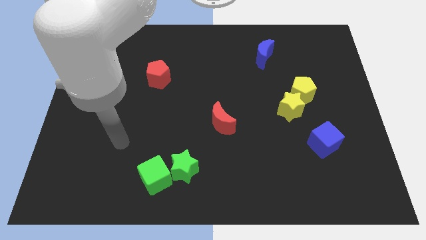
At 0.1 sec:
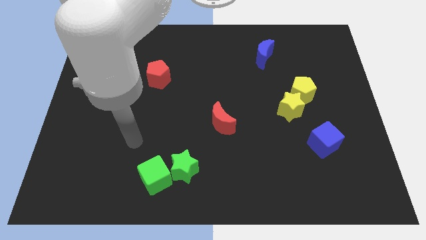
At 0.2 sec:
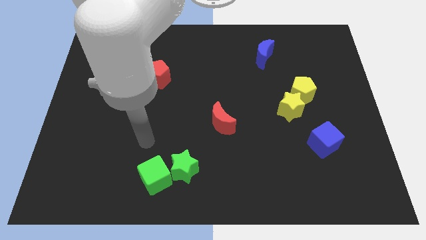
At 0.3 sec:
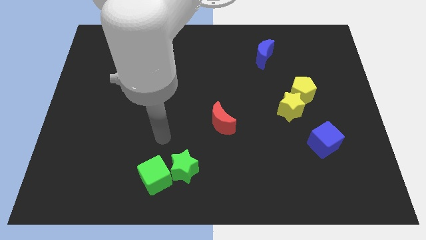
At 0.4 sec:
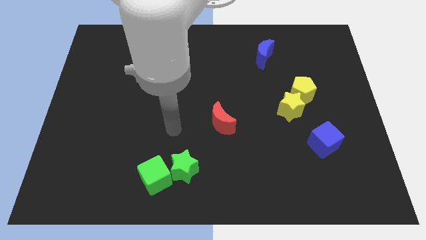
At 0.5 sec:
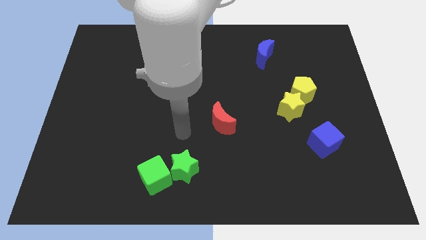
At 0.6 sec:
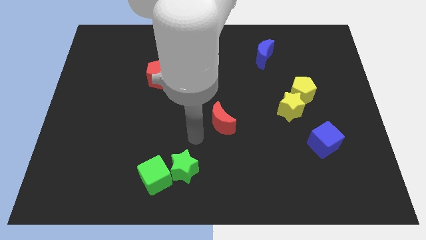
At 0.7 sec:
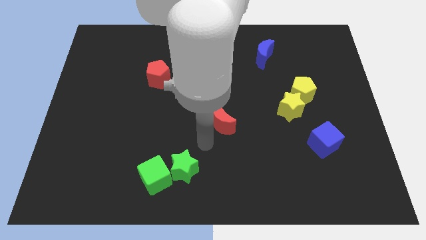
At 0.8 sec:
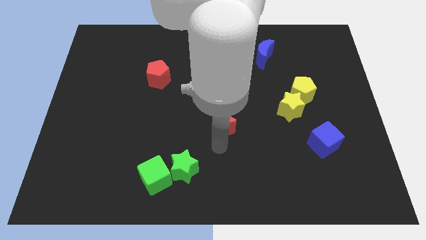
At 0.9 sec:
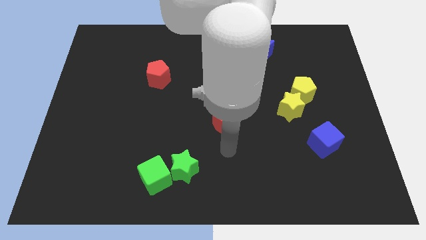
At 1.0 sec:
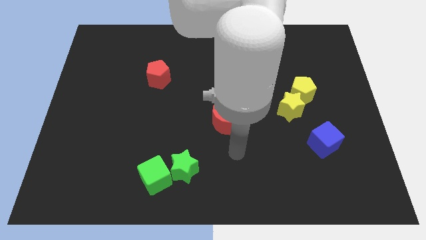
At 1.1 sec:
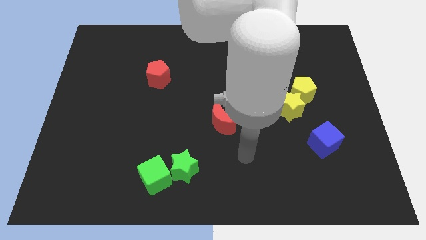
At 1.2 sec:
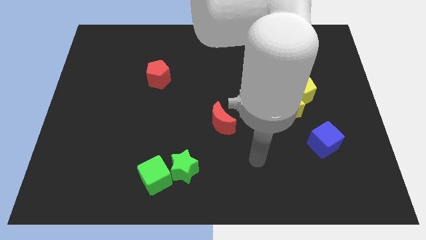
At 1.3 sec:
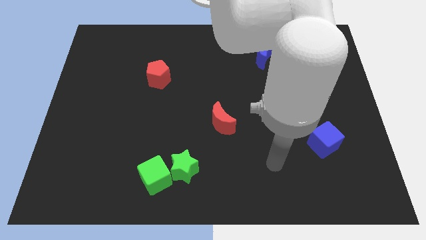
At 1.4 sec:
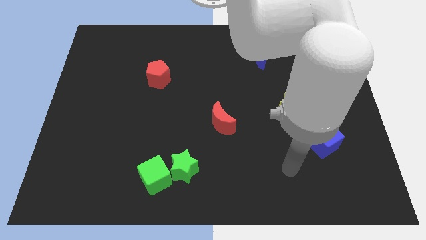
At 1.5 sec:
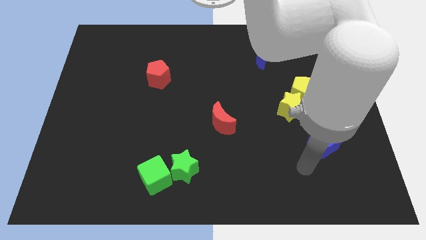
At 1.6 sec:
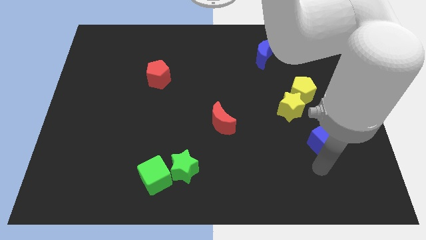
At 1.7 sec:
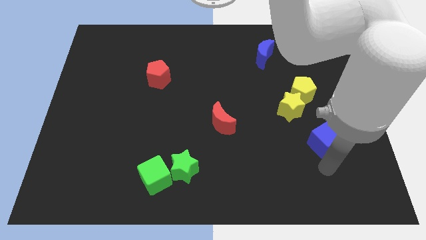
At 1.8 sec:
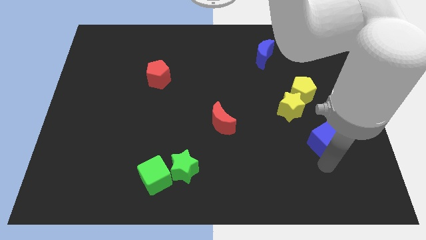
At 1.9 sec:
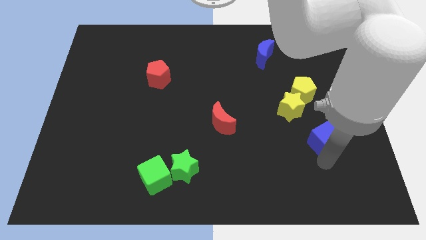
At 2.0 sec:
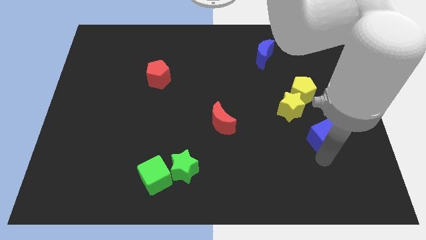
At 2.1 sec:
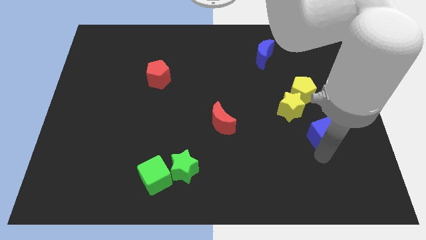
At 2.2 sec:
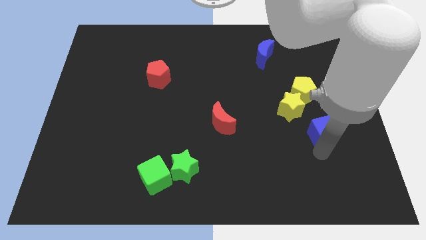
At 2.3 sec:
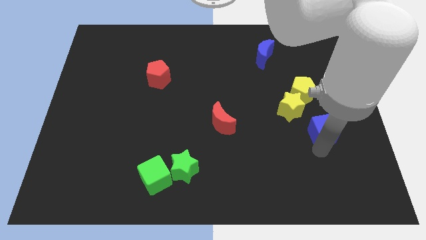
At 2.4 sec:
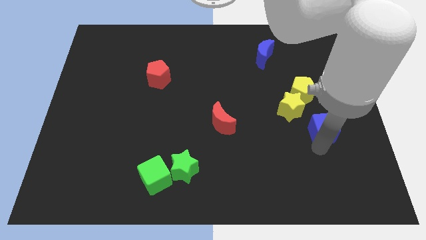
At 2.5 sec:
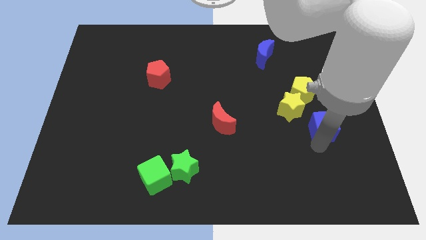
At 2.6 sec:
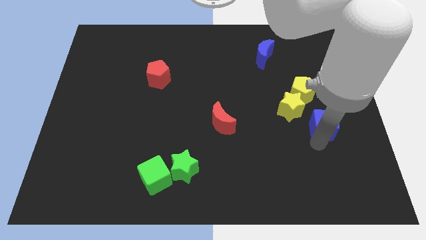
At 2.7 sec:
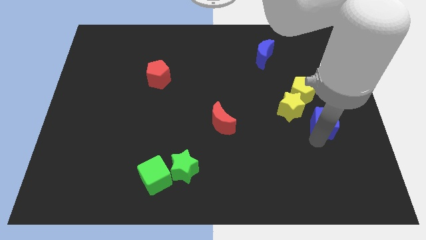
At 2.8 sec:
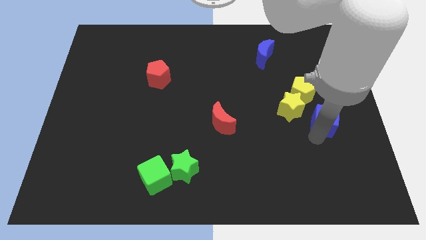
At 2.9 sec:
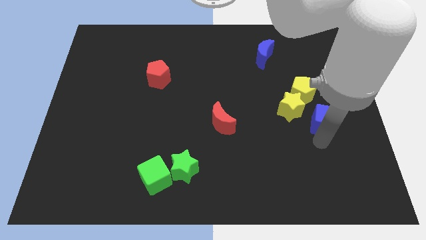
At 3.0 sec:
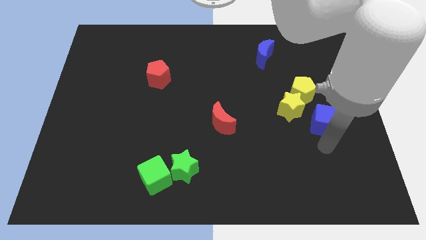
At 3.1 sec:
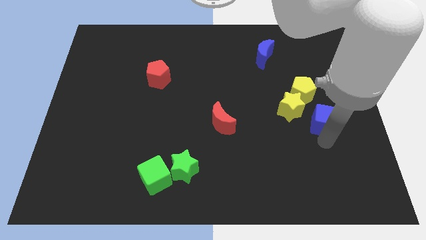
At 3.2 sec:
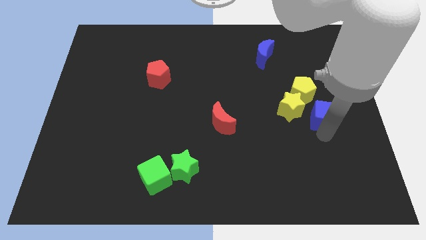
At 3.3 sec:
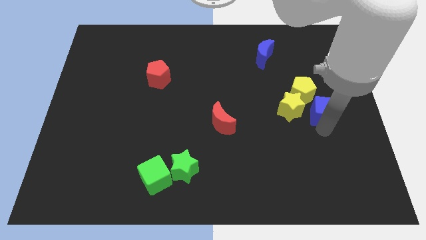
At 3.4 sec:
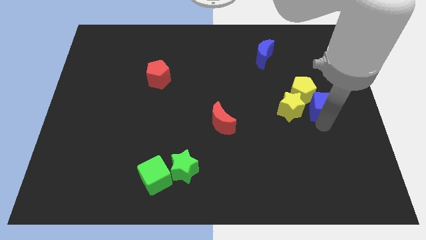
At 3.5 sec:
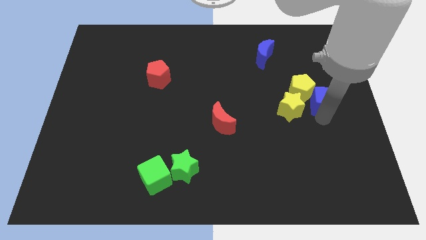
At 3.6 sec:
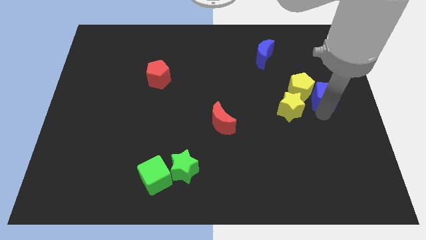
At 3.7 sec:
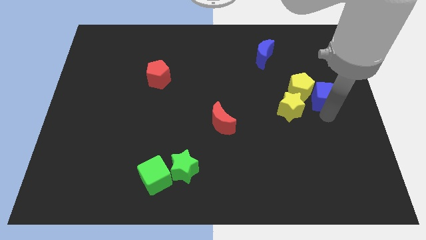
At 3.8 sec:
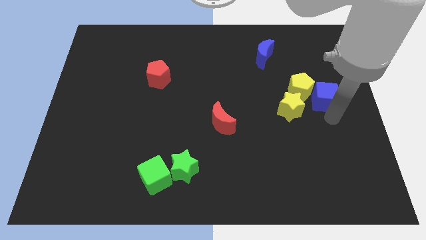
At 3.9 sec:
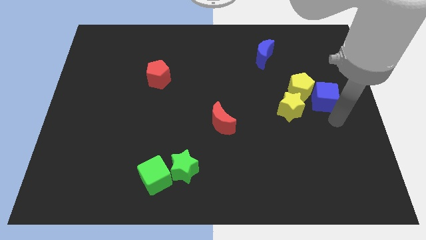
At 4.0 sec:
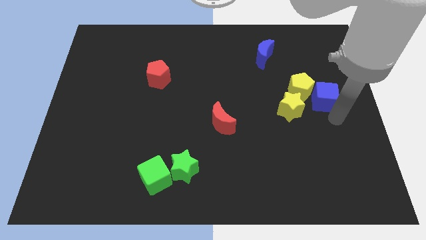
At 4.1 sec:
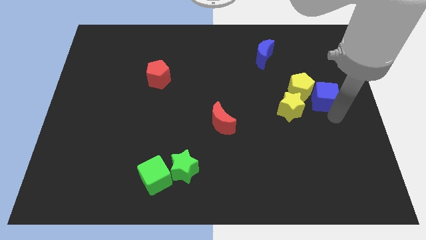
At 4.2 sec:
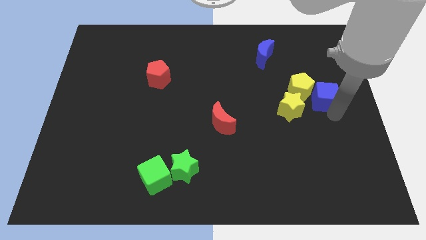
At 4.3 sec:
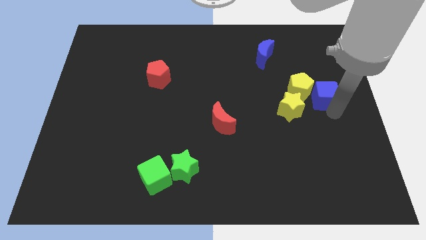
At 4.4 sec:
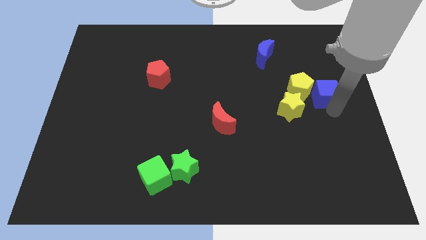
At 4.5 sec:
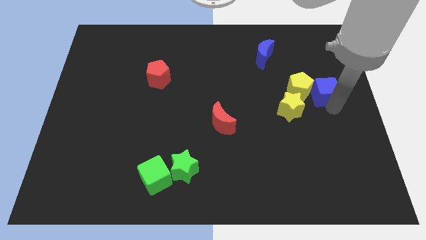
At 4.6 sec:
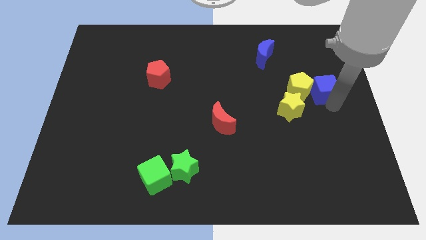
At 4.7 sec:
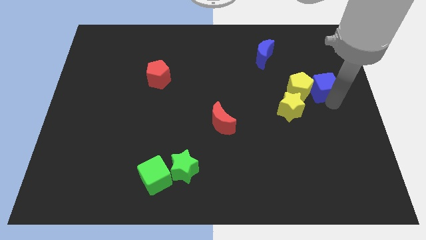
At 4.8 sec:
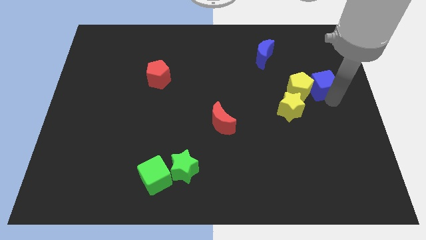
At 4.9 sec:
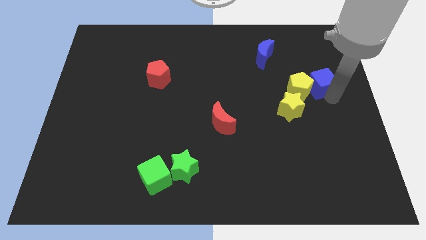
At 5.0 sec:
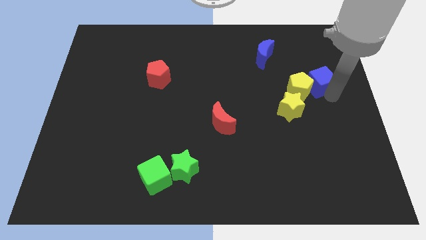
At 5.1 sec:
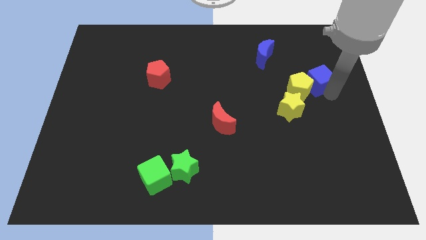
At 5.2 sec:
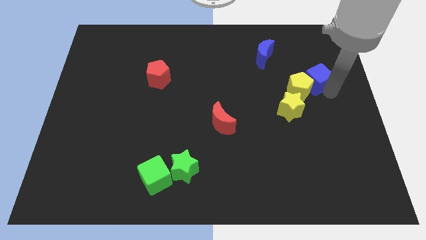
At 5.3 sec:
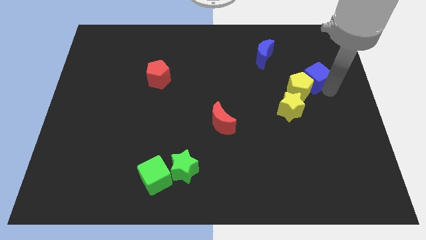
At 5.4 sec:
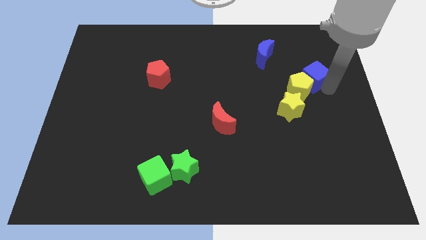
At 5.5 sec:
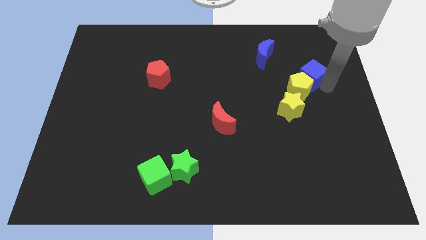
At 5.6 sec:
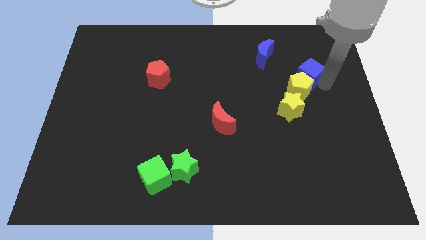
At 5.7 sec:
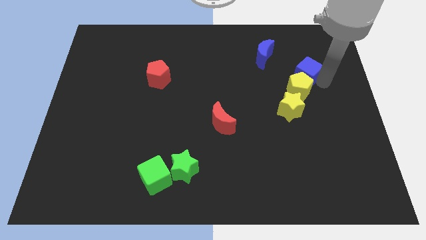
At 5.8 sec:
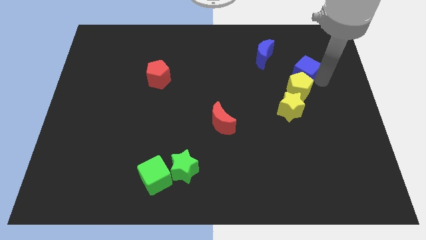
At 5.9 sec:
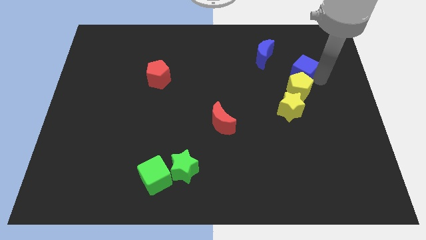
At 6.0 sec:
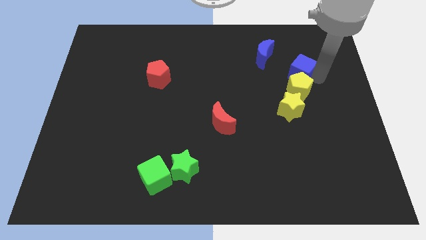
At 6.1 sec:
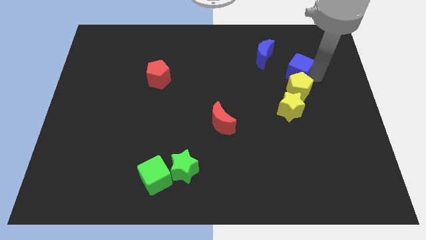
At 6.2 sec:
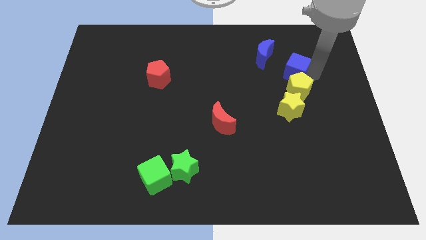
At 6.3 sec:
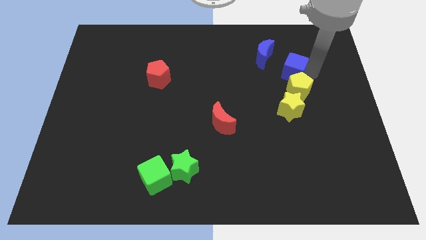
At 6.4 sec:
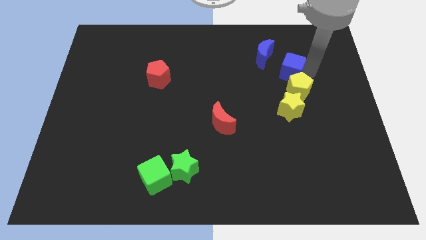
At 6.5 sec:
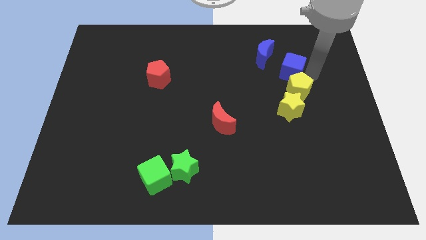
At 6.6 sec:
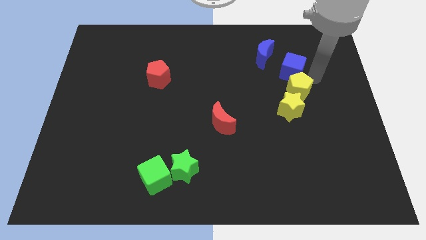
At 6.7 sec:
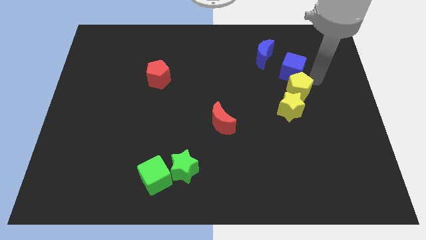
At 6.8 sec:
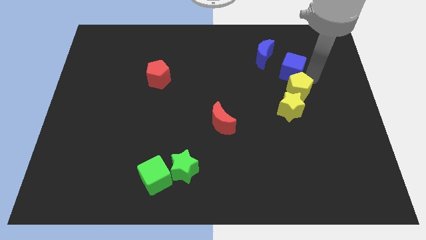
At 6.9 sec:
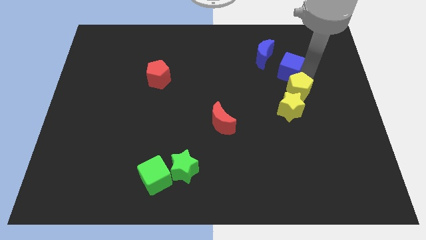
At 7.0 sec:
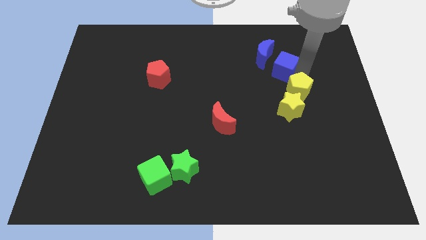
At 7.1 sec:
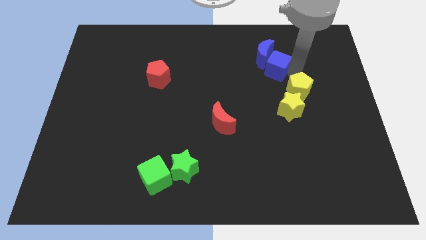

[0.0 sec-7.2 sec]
put the blue cube to the blue moon

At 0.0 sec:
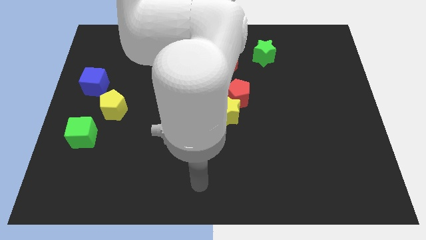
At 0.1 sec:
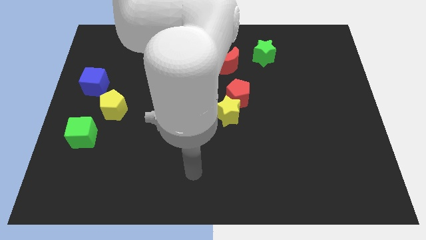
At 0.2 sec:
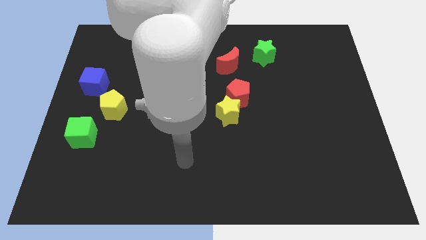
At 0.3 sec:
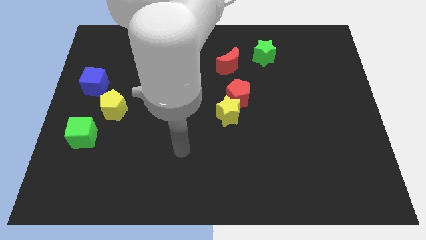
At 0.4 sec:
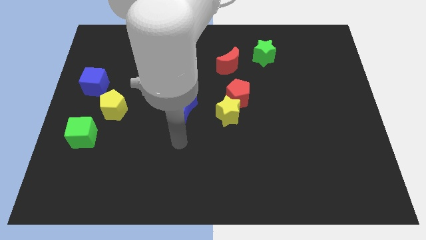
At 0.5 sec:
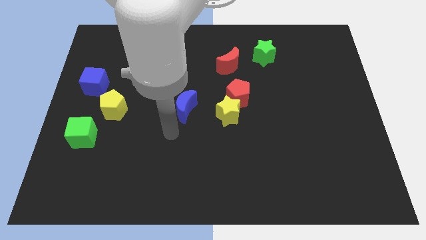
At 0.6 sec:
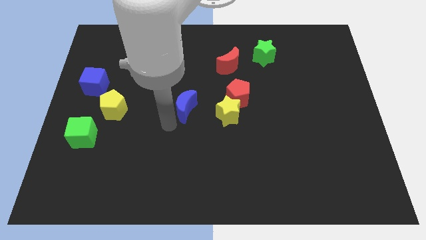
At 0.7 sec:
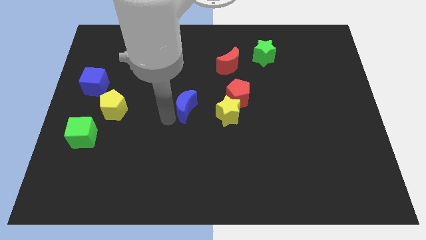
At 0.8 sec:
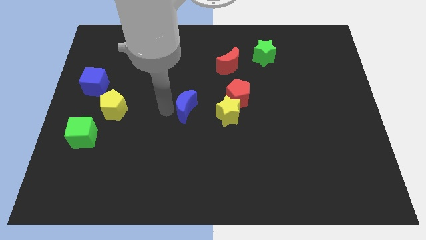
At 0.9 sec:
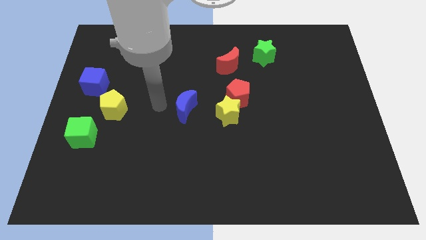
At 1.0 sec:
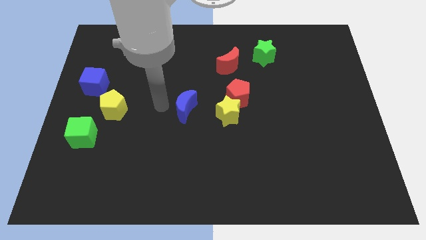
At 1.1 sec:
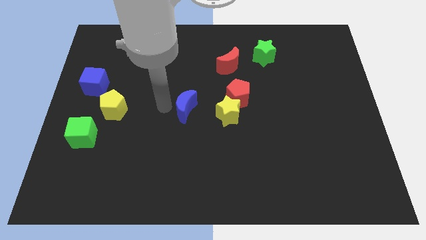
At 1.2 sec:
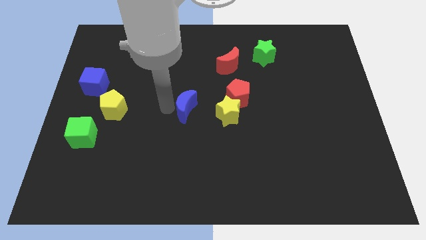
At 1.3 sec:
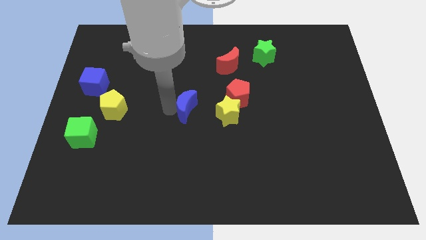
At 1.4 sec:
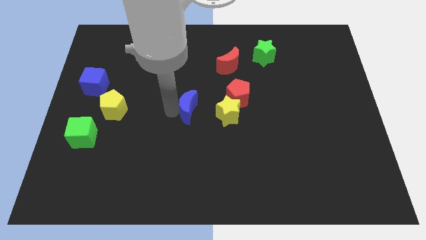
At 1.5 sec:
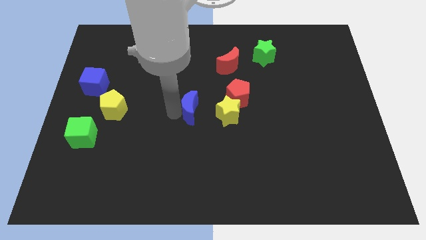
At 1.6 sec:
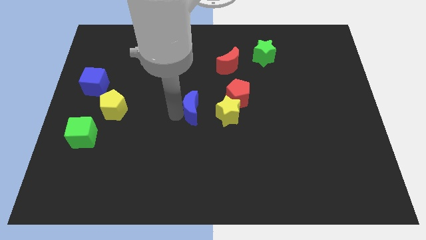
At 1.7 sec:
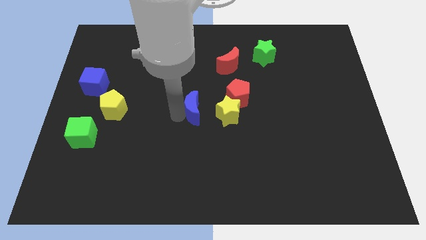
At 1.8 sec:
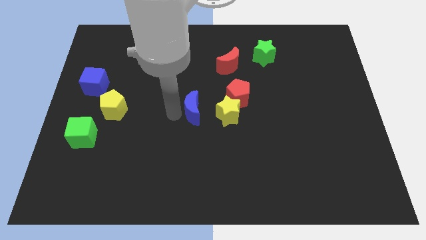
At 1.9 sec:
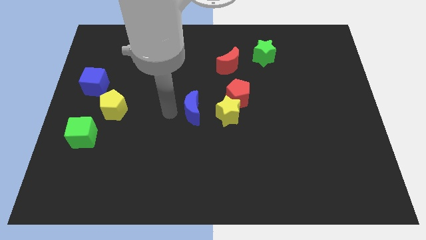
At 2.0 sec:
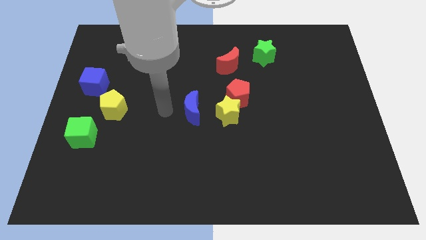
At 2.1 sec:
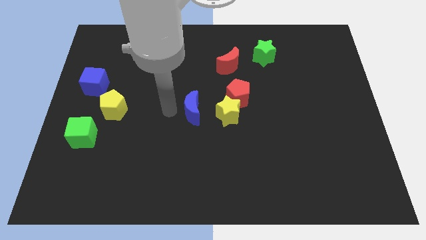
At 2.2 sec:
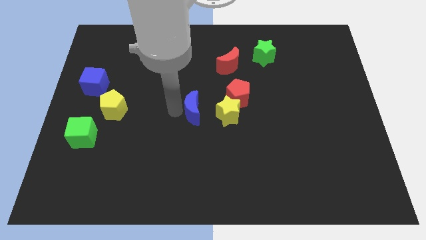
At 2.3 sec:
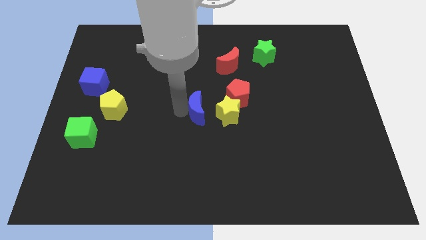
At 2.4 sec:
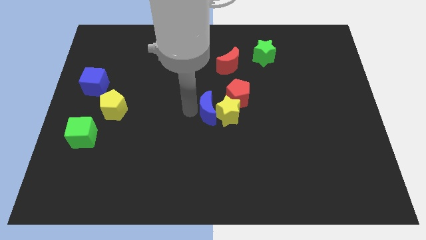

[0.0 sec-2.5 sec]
put the blue moon close to the yellow star
